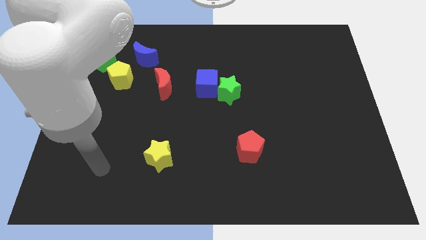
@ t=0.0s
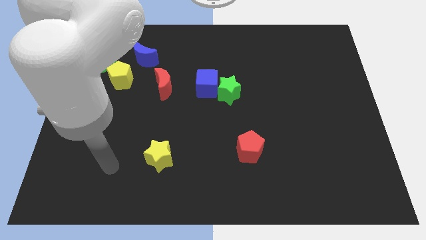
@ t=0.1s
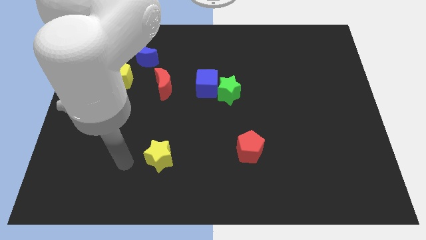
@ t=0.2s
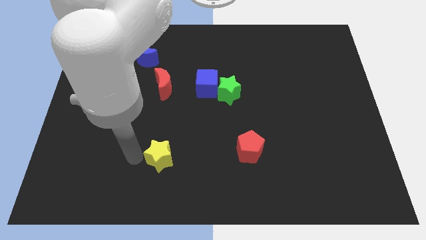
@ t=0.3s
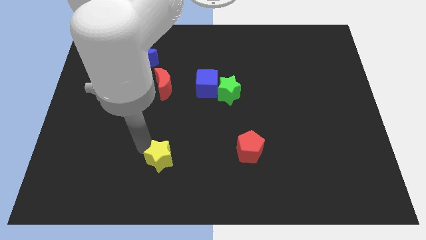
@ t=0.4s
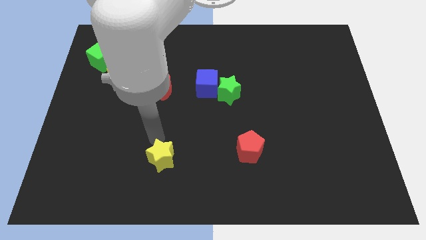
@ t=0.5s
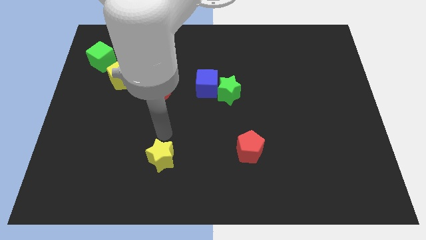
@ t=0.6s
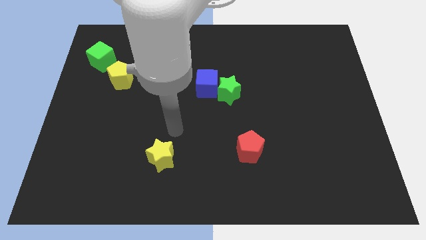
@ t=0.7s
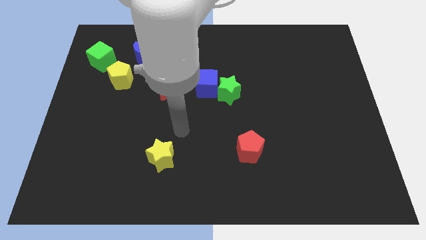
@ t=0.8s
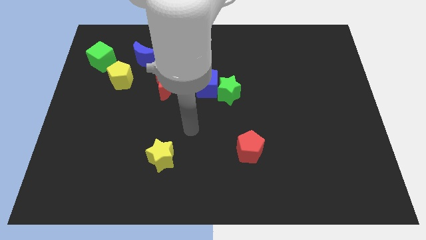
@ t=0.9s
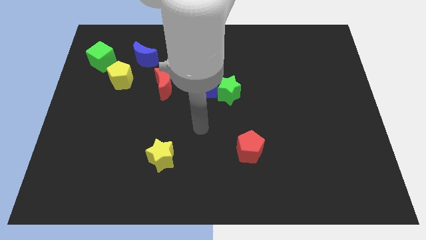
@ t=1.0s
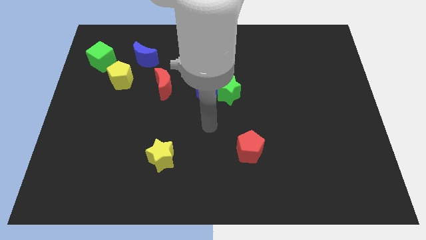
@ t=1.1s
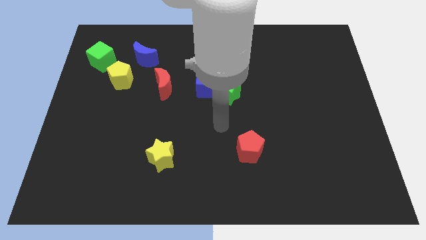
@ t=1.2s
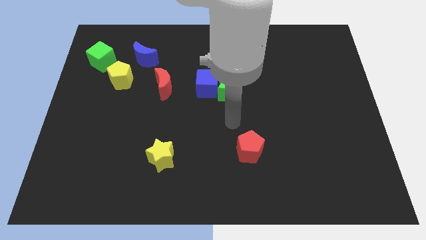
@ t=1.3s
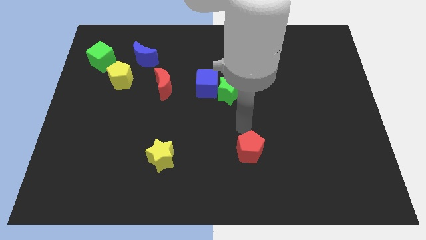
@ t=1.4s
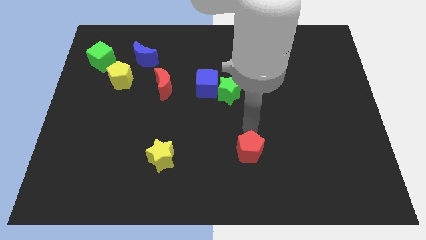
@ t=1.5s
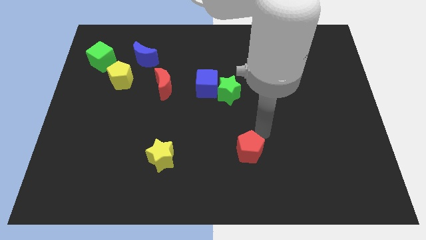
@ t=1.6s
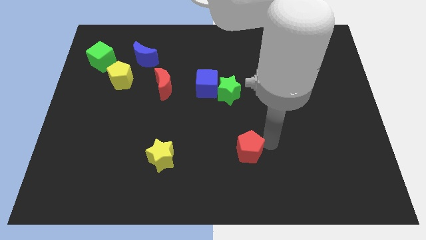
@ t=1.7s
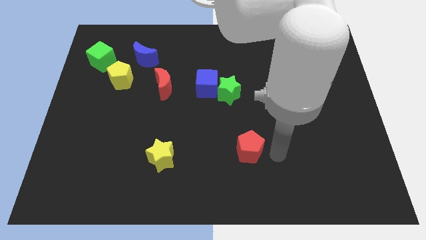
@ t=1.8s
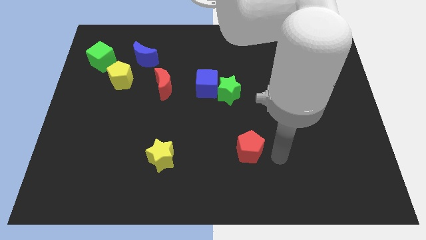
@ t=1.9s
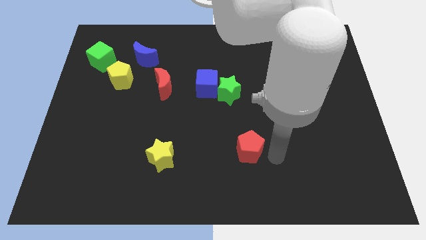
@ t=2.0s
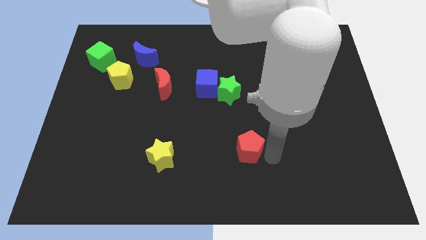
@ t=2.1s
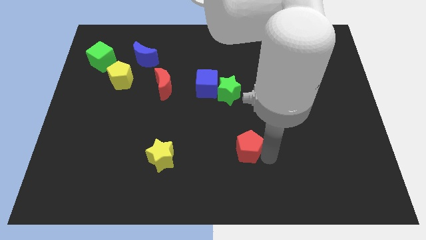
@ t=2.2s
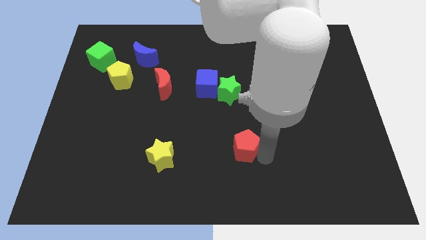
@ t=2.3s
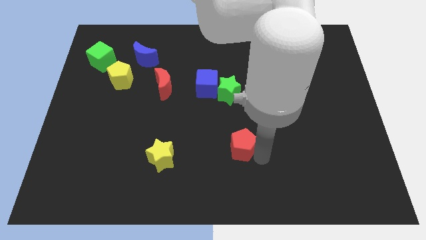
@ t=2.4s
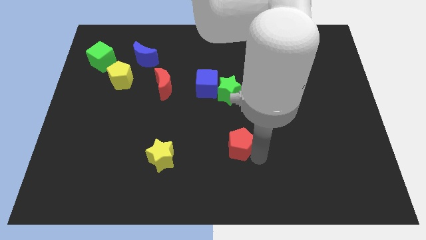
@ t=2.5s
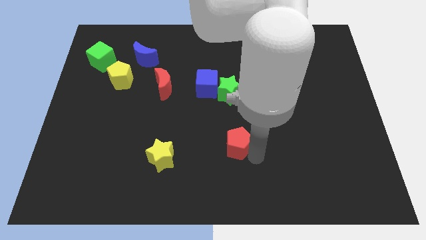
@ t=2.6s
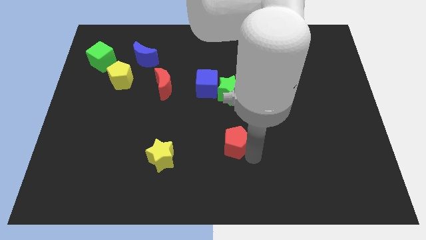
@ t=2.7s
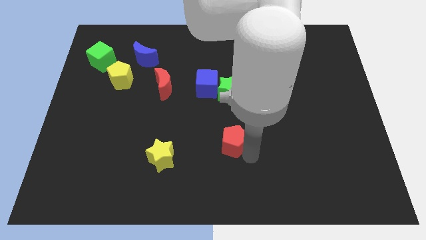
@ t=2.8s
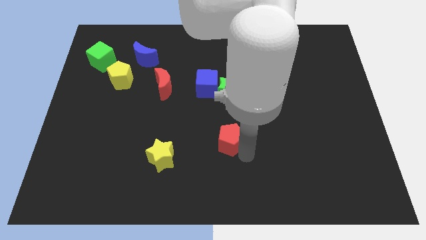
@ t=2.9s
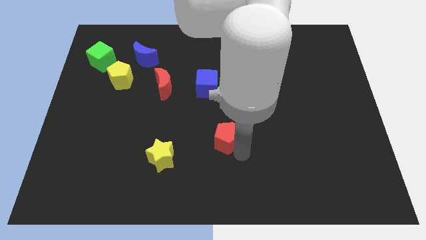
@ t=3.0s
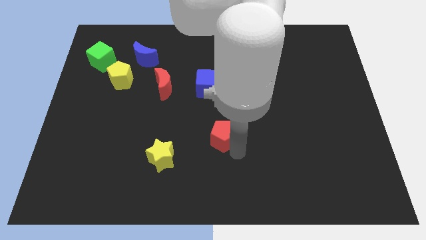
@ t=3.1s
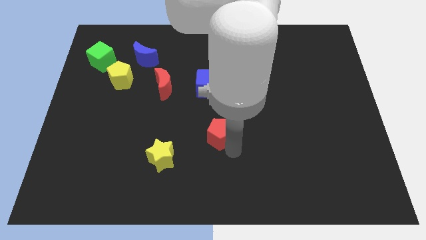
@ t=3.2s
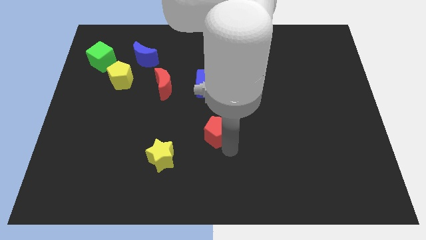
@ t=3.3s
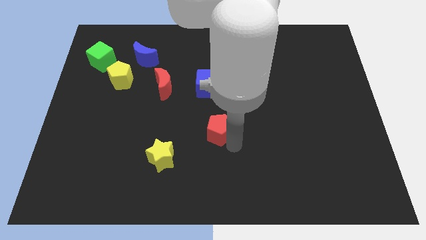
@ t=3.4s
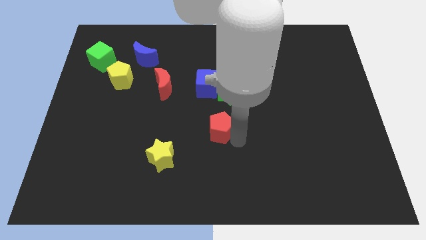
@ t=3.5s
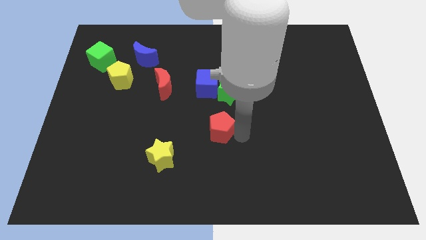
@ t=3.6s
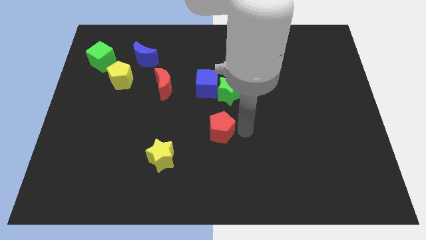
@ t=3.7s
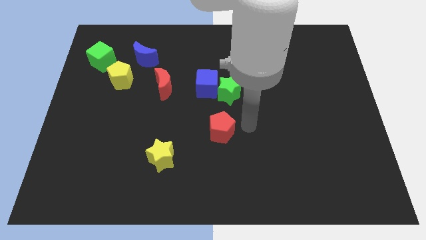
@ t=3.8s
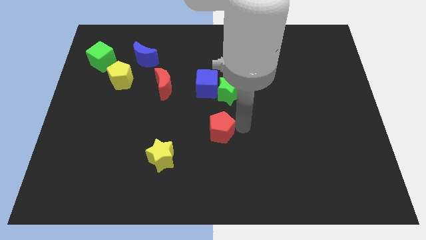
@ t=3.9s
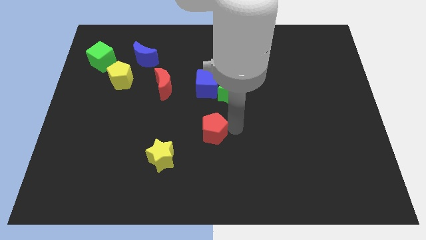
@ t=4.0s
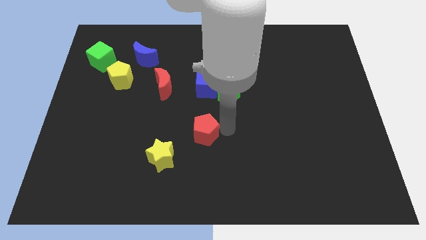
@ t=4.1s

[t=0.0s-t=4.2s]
put the red pentagon to the top right side of the yellow star

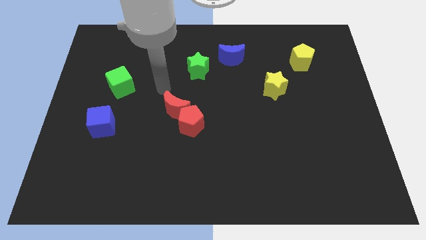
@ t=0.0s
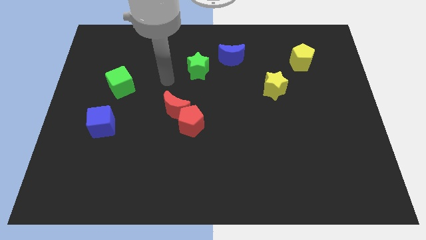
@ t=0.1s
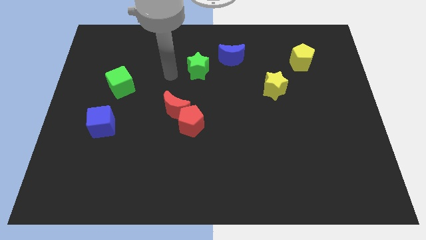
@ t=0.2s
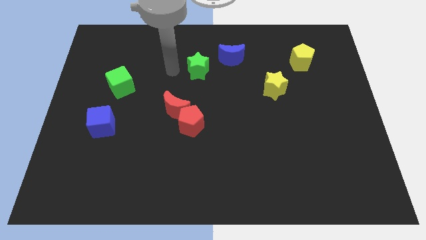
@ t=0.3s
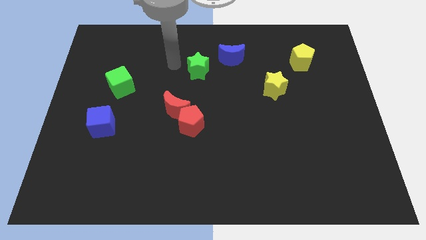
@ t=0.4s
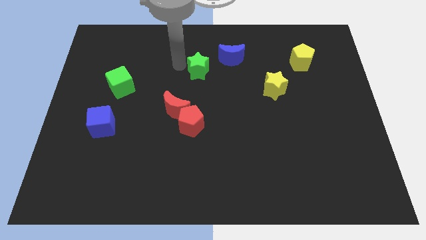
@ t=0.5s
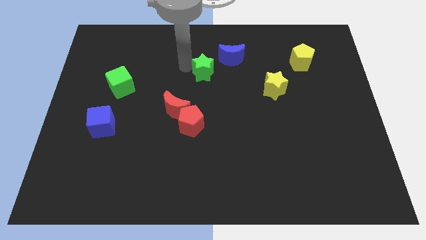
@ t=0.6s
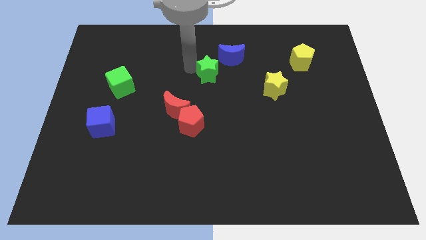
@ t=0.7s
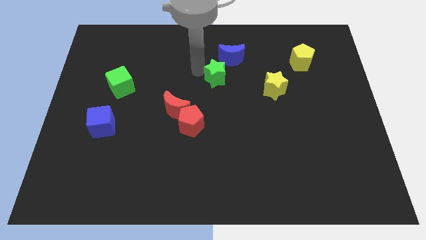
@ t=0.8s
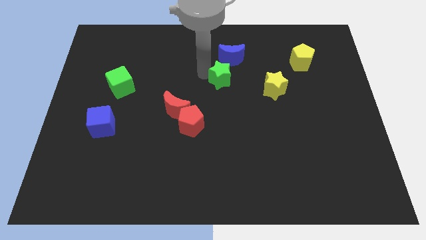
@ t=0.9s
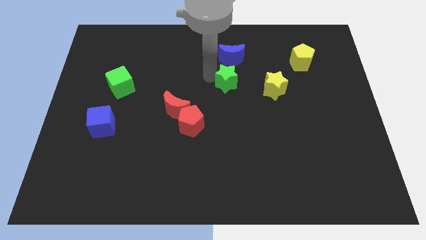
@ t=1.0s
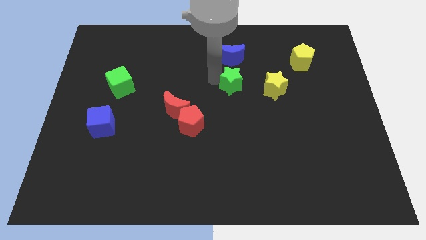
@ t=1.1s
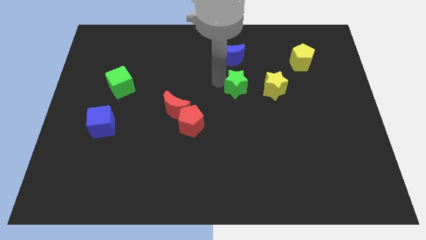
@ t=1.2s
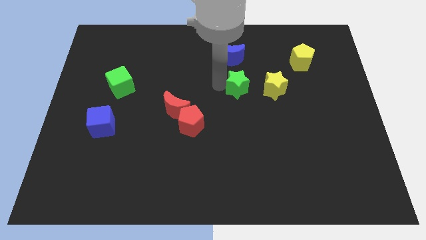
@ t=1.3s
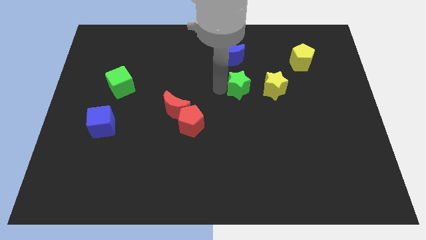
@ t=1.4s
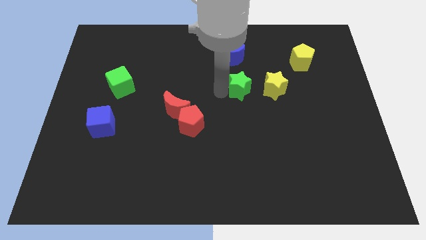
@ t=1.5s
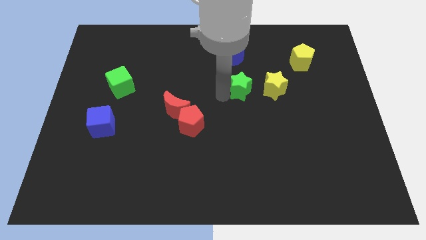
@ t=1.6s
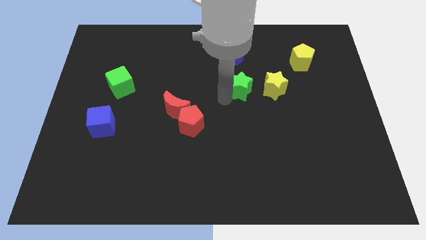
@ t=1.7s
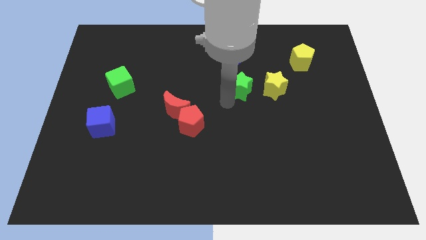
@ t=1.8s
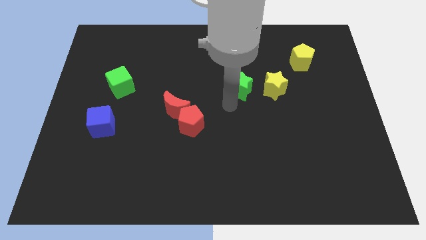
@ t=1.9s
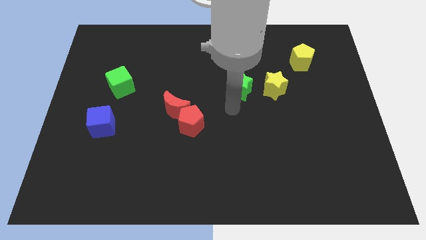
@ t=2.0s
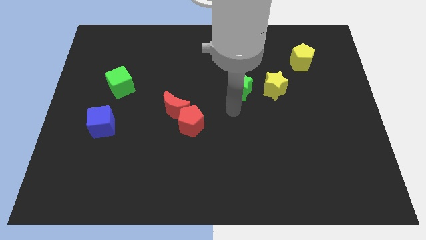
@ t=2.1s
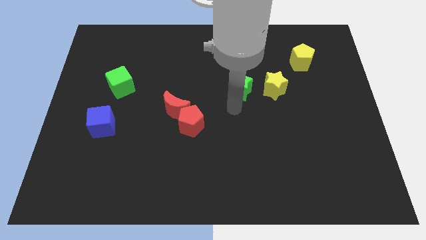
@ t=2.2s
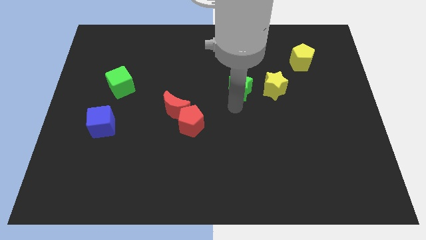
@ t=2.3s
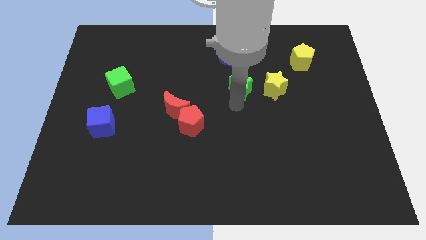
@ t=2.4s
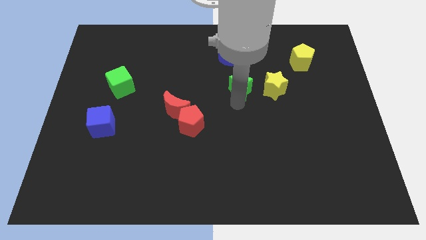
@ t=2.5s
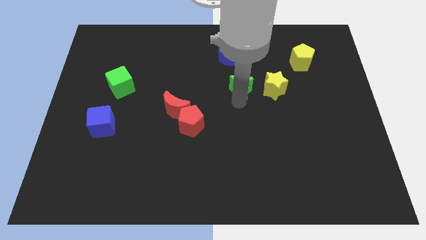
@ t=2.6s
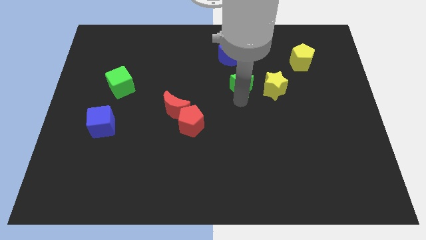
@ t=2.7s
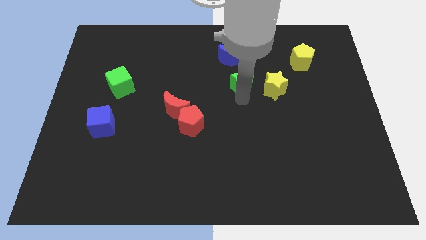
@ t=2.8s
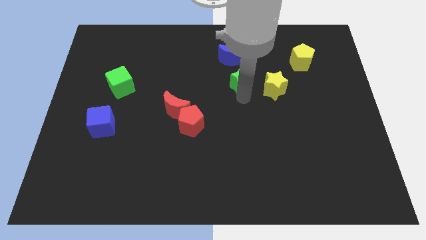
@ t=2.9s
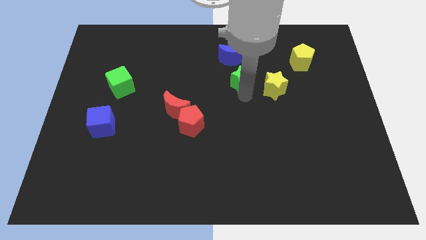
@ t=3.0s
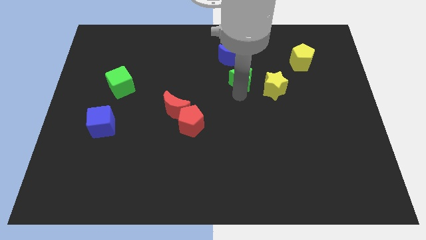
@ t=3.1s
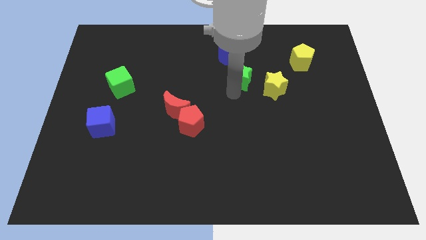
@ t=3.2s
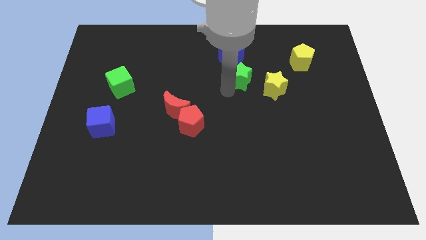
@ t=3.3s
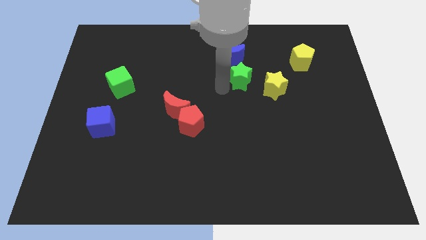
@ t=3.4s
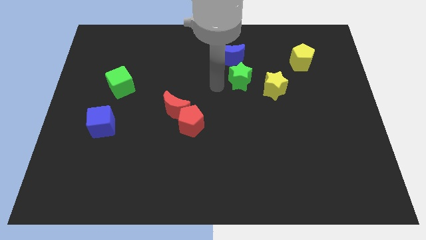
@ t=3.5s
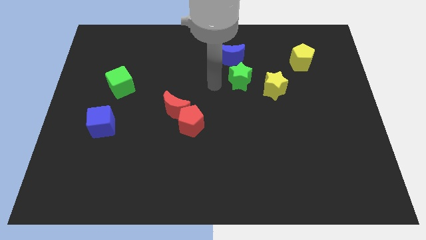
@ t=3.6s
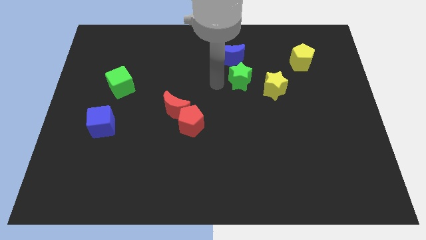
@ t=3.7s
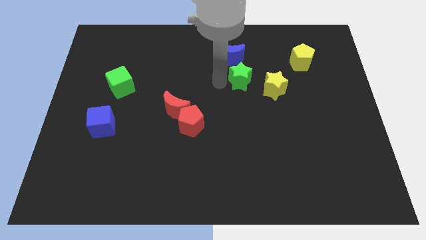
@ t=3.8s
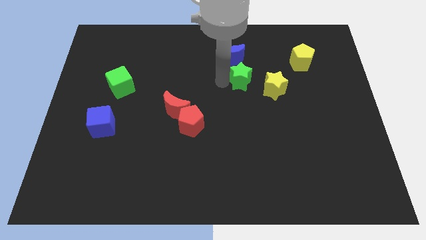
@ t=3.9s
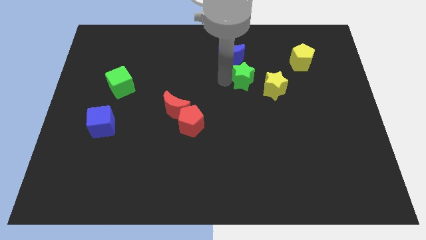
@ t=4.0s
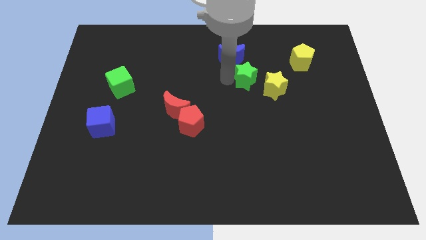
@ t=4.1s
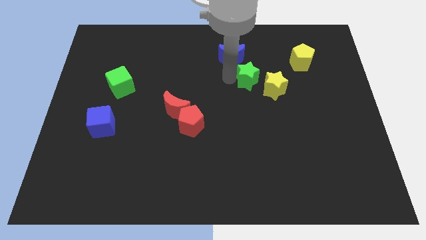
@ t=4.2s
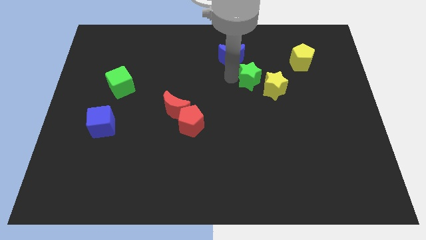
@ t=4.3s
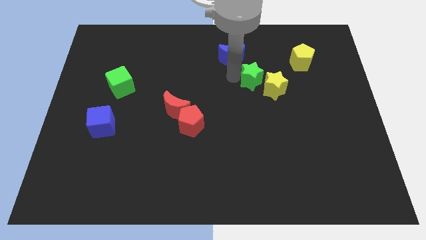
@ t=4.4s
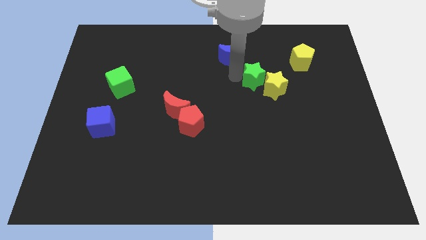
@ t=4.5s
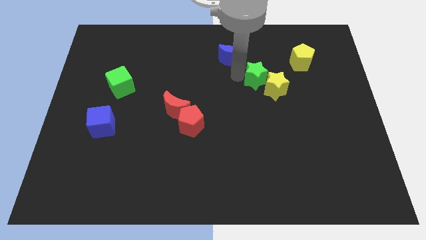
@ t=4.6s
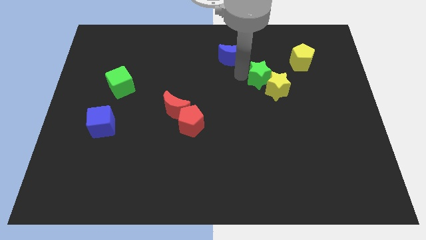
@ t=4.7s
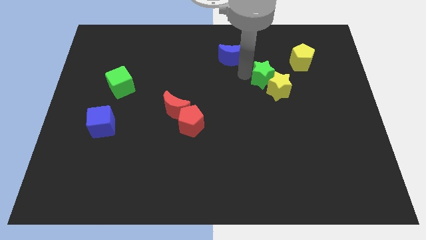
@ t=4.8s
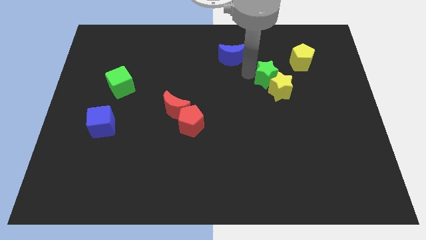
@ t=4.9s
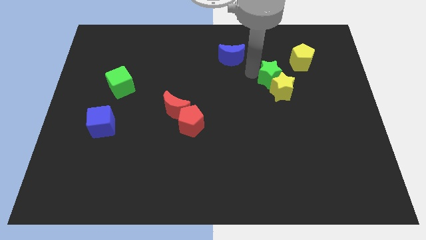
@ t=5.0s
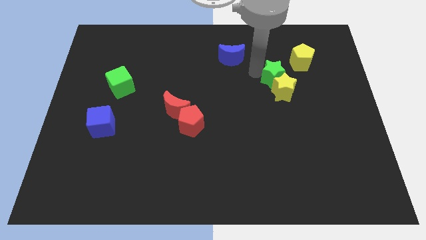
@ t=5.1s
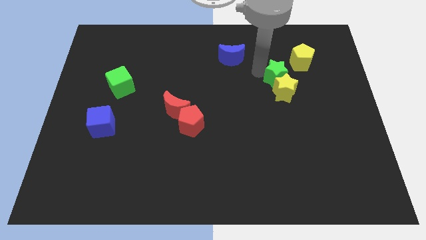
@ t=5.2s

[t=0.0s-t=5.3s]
slide the green star diagonally up and to the right of the yellow star
